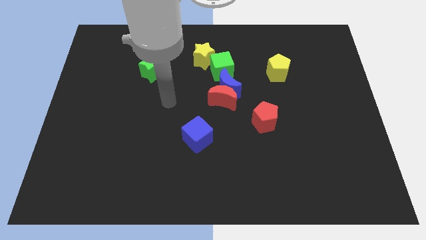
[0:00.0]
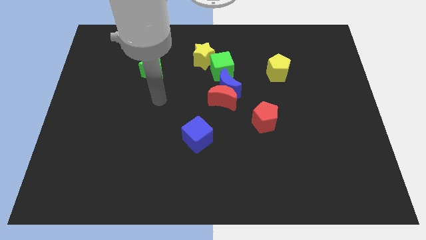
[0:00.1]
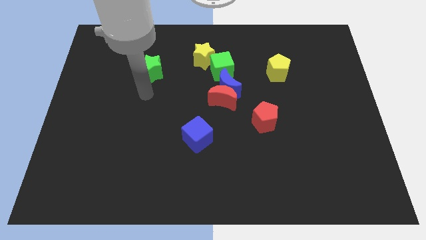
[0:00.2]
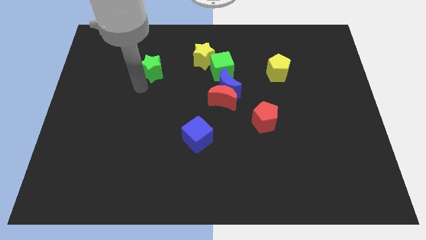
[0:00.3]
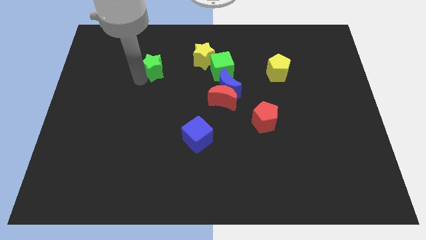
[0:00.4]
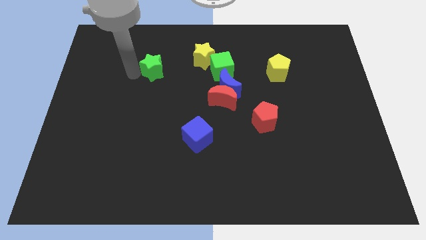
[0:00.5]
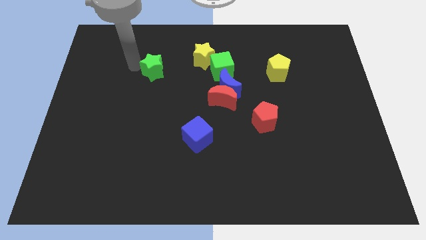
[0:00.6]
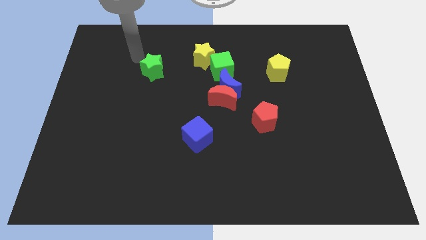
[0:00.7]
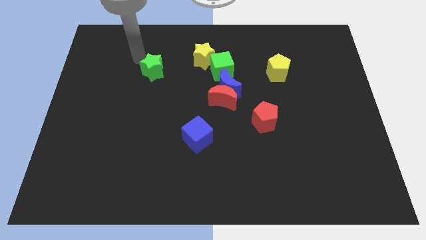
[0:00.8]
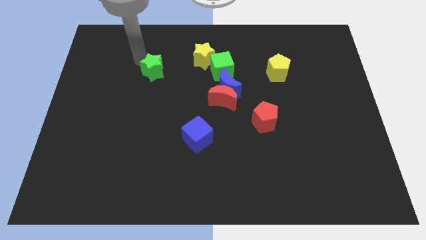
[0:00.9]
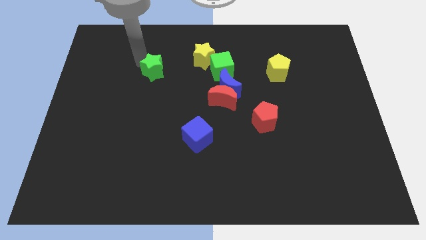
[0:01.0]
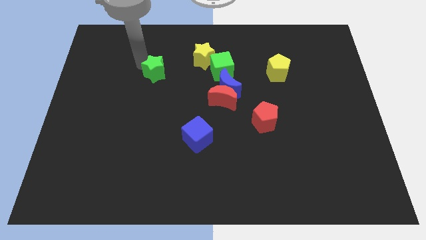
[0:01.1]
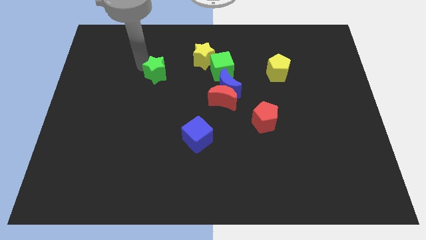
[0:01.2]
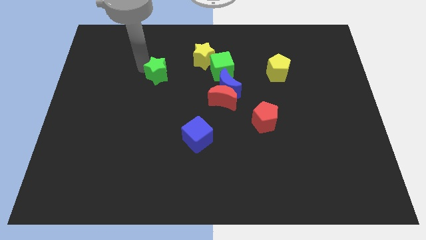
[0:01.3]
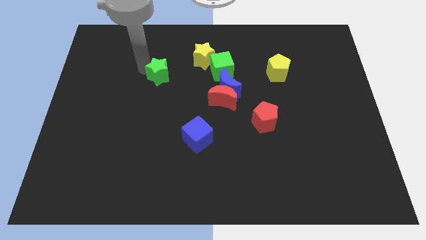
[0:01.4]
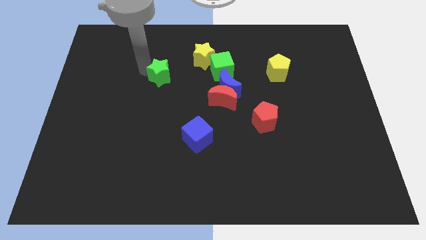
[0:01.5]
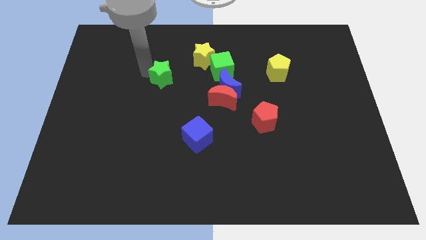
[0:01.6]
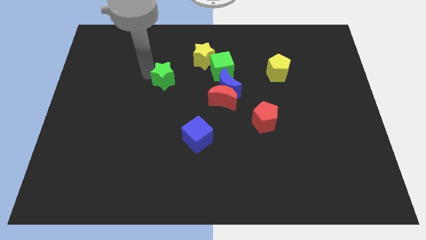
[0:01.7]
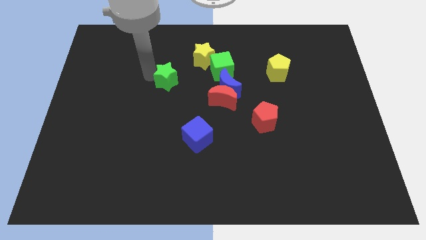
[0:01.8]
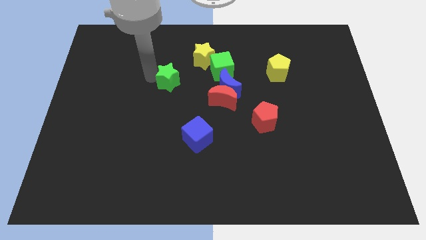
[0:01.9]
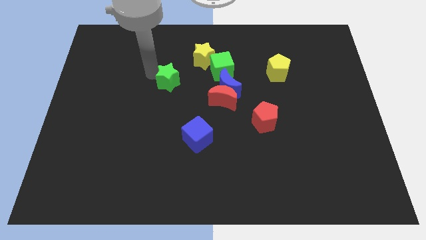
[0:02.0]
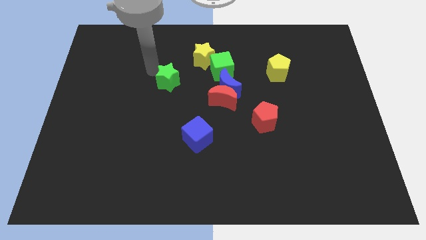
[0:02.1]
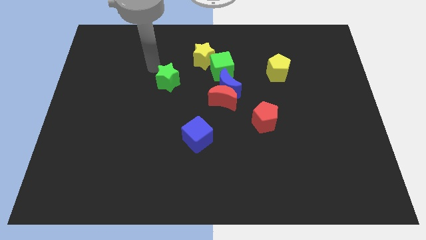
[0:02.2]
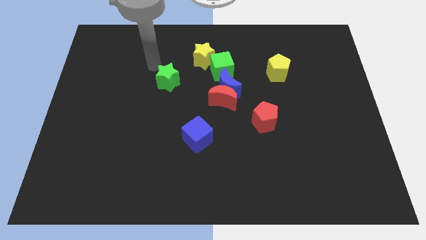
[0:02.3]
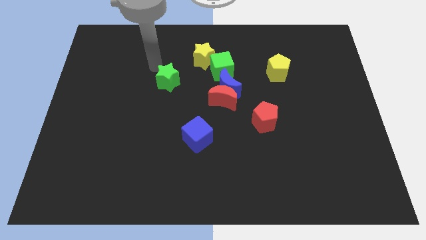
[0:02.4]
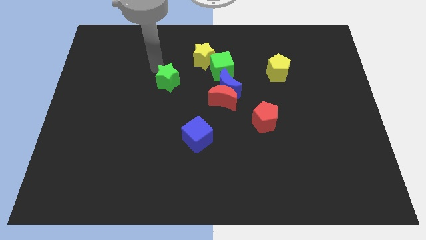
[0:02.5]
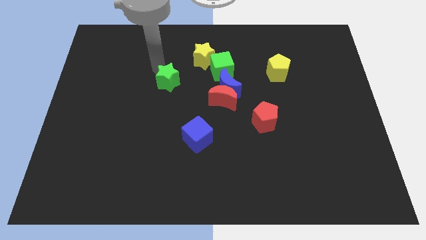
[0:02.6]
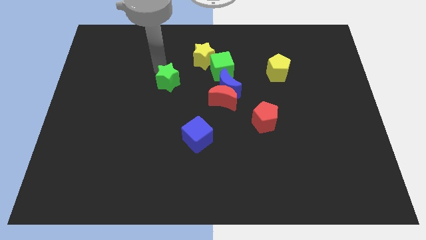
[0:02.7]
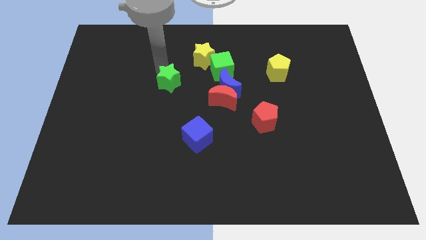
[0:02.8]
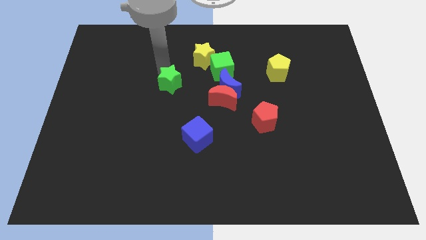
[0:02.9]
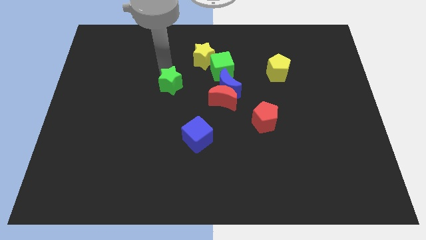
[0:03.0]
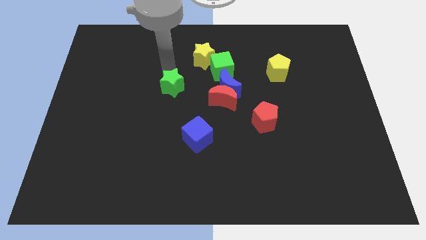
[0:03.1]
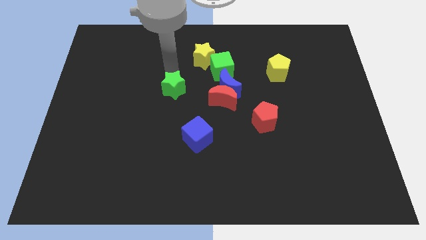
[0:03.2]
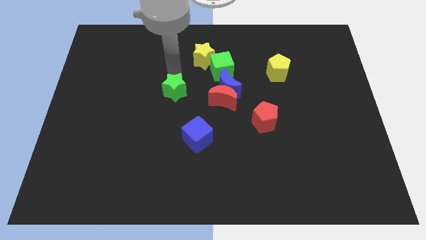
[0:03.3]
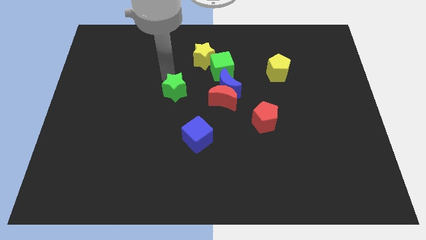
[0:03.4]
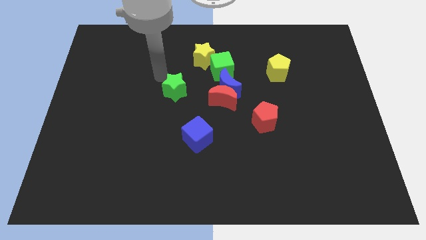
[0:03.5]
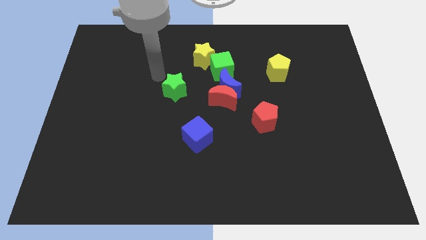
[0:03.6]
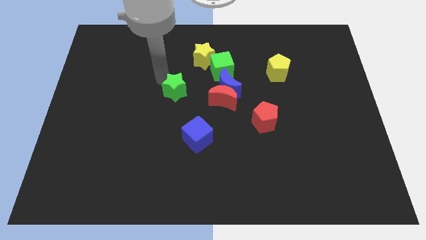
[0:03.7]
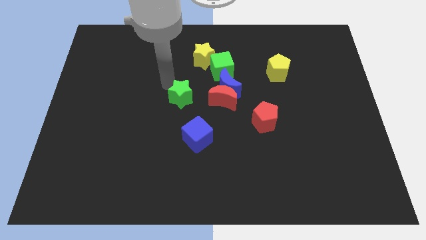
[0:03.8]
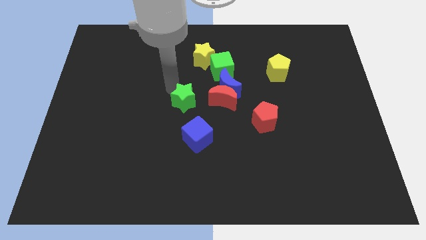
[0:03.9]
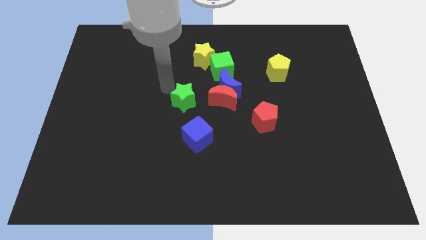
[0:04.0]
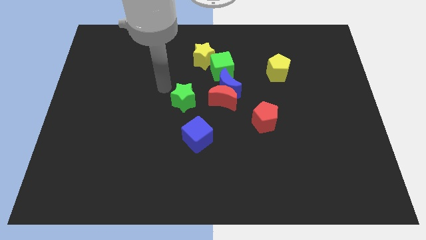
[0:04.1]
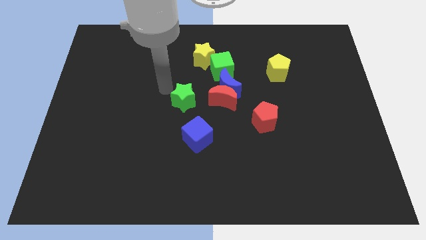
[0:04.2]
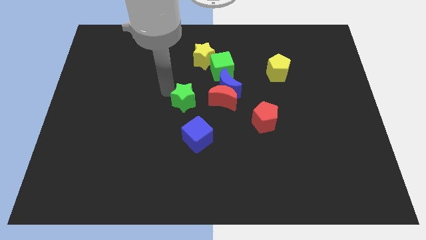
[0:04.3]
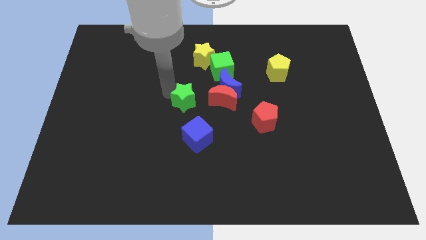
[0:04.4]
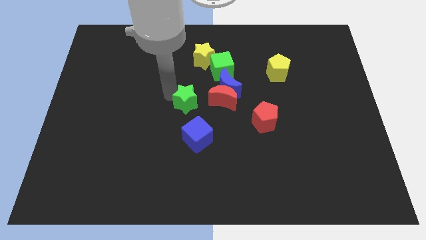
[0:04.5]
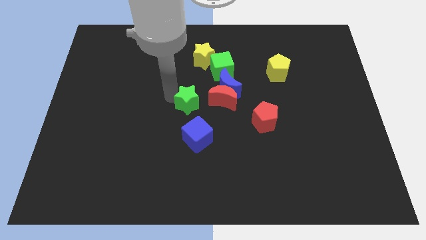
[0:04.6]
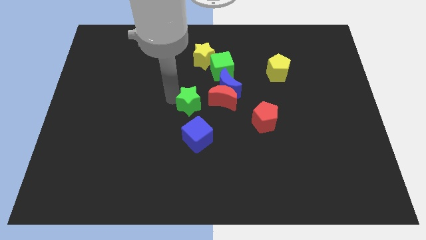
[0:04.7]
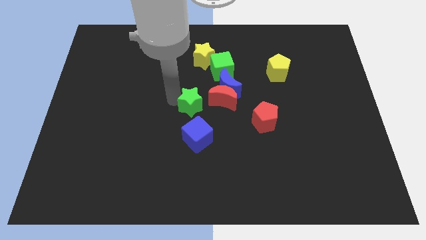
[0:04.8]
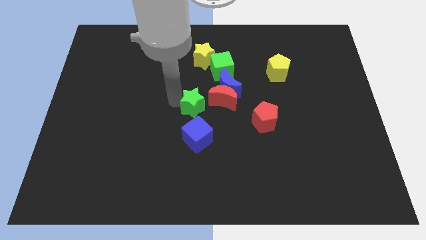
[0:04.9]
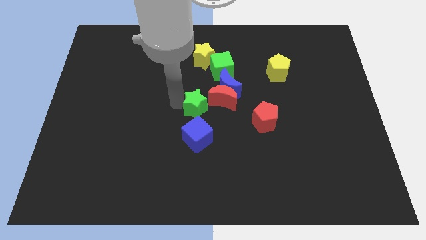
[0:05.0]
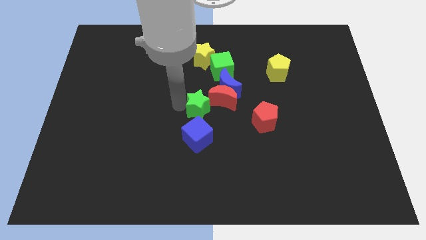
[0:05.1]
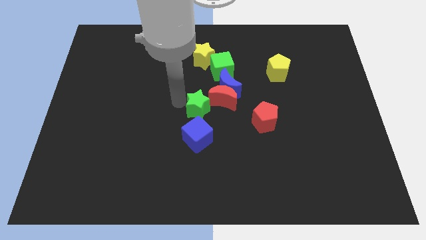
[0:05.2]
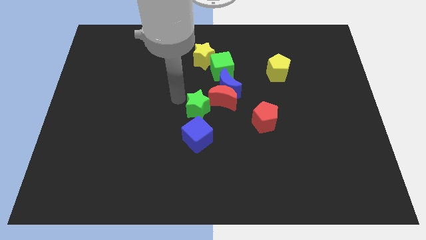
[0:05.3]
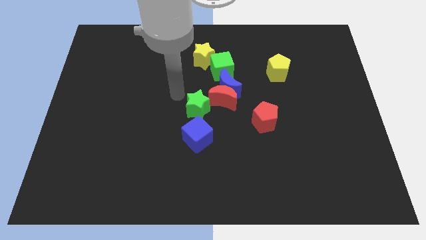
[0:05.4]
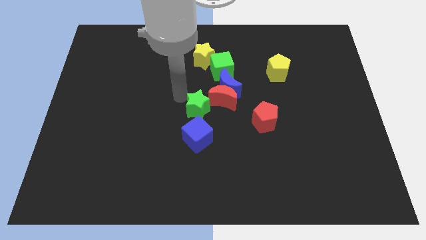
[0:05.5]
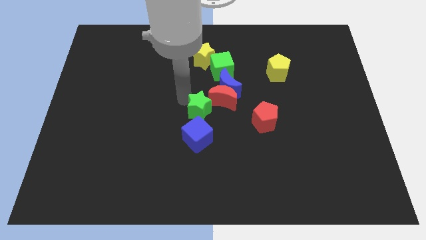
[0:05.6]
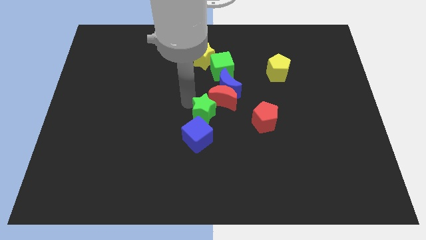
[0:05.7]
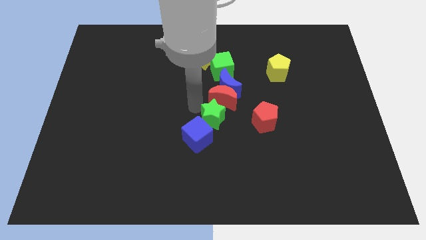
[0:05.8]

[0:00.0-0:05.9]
push the green star down and to the right

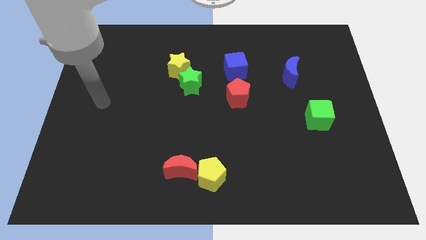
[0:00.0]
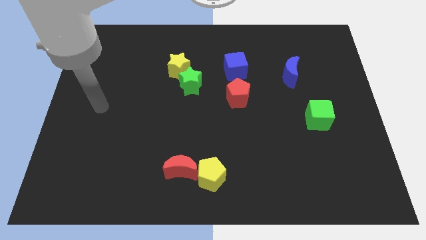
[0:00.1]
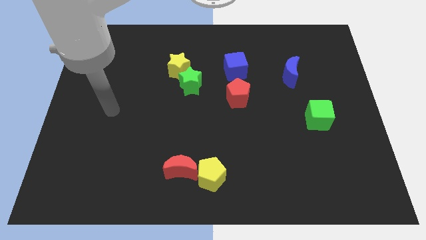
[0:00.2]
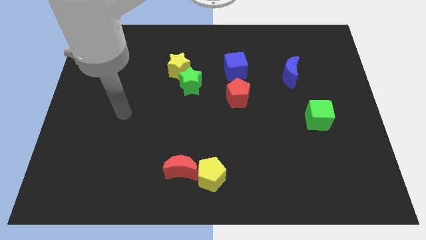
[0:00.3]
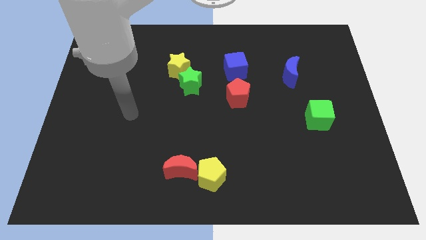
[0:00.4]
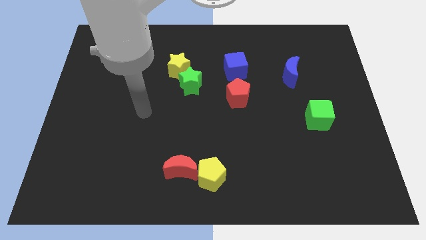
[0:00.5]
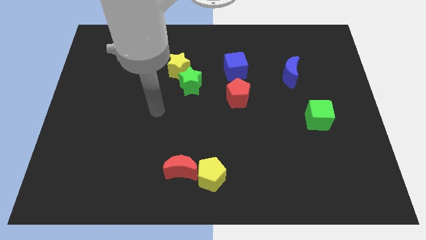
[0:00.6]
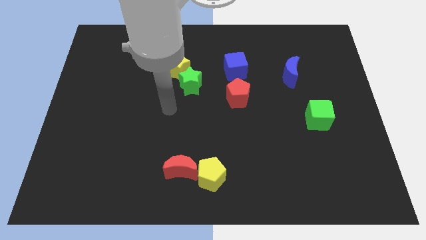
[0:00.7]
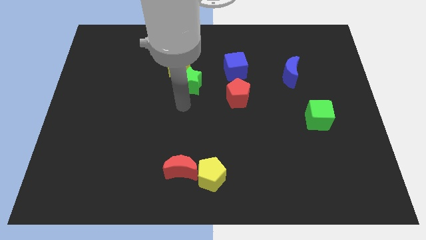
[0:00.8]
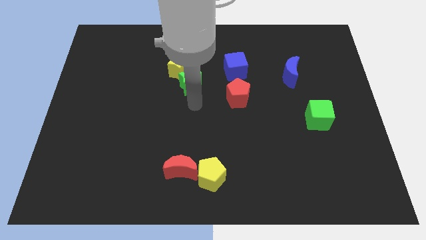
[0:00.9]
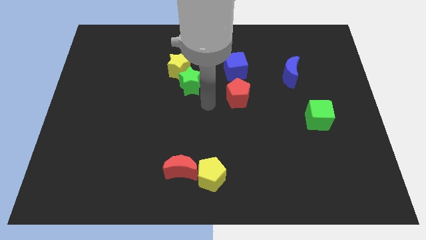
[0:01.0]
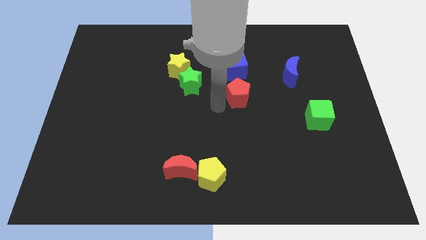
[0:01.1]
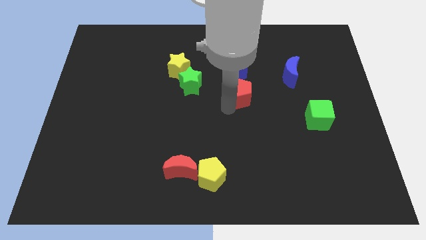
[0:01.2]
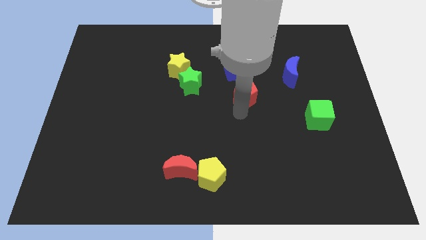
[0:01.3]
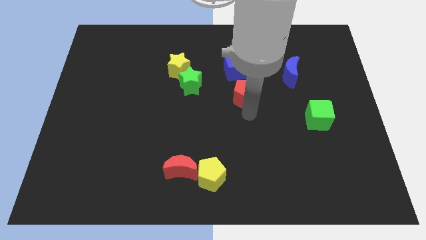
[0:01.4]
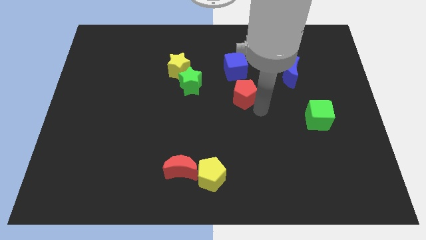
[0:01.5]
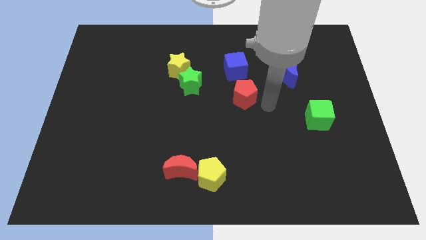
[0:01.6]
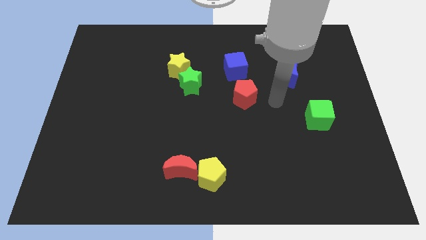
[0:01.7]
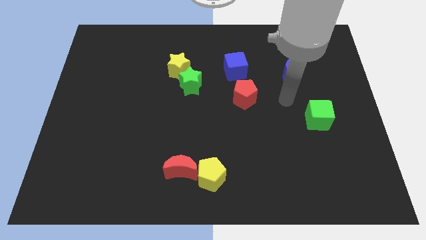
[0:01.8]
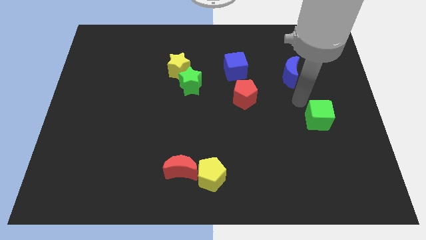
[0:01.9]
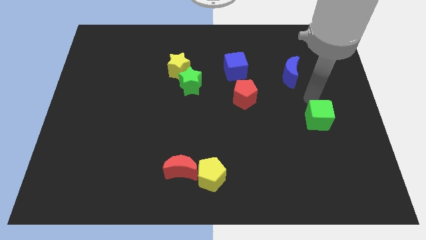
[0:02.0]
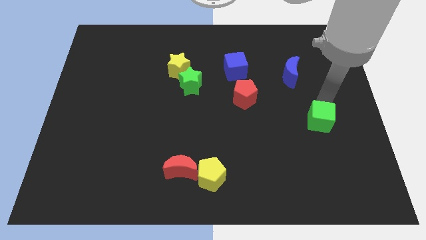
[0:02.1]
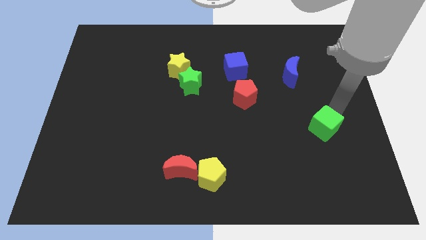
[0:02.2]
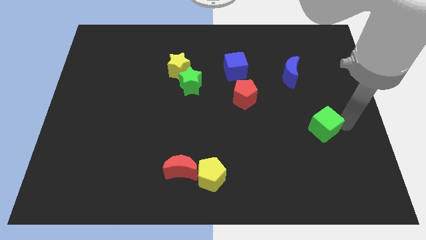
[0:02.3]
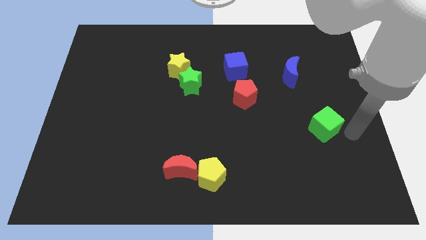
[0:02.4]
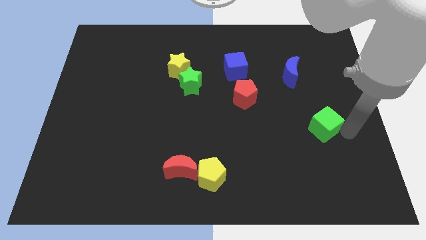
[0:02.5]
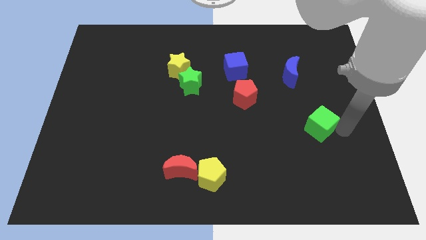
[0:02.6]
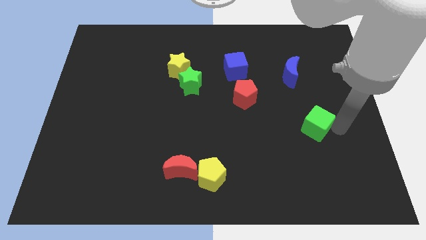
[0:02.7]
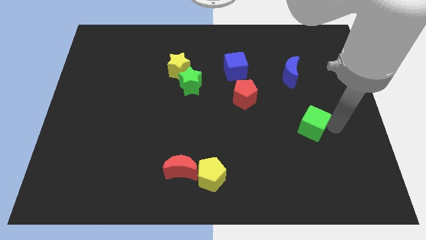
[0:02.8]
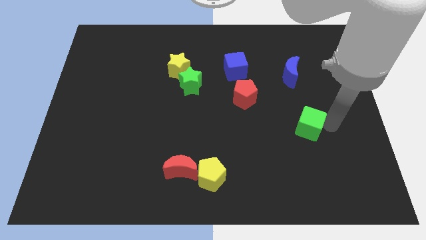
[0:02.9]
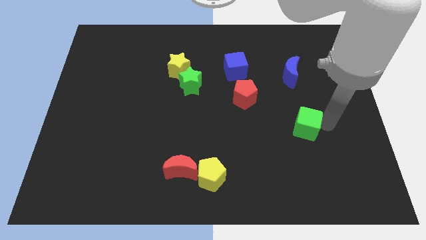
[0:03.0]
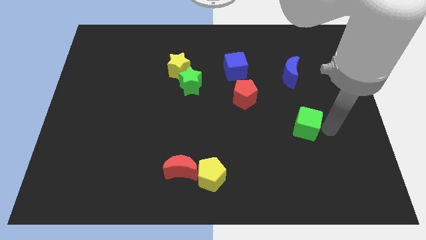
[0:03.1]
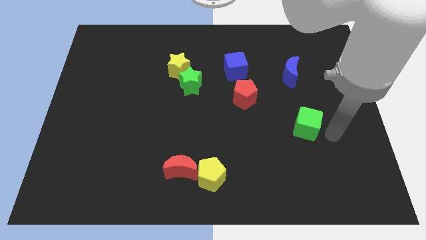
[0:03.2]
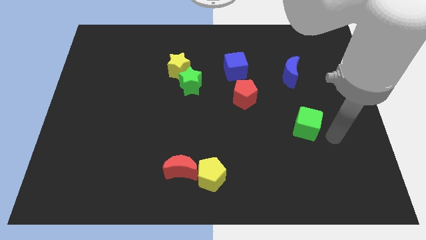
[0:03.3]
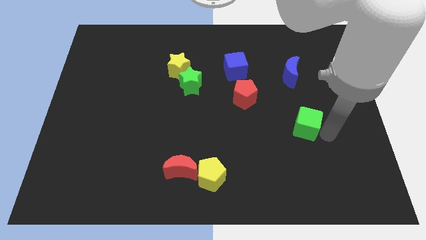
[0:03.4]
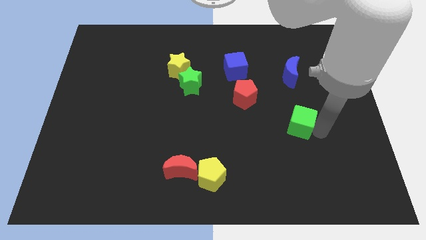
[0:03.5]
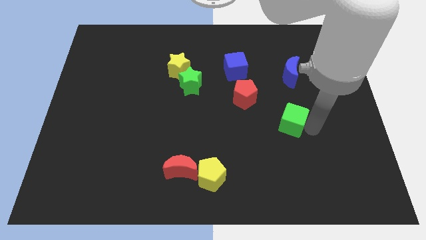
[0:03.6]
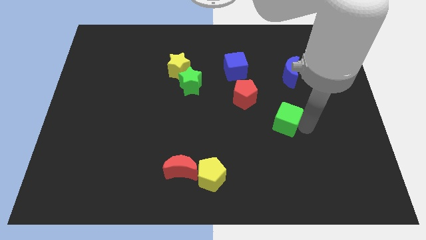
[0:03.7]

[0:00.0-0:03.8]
move the green cube a bit left
